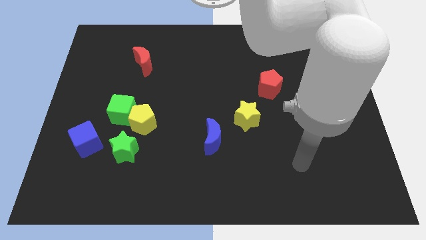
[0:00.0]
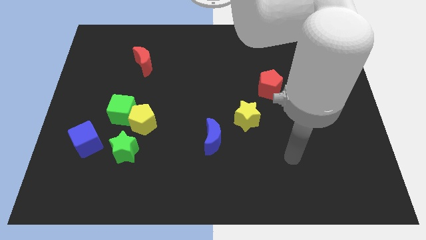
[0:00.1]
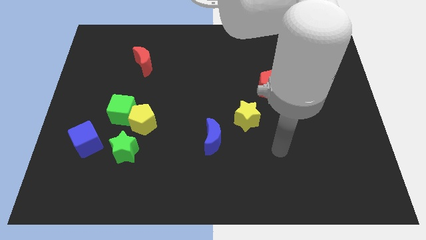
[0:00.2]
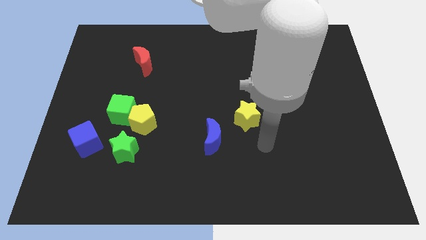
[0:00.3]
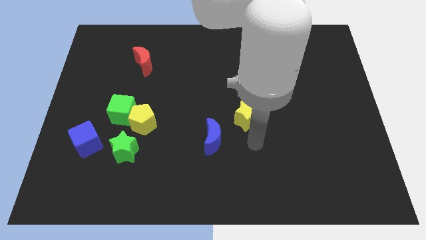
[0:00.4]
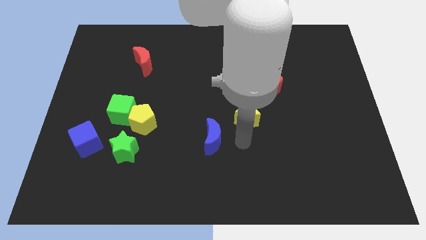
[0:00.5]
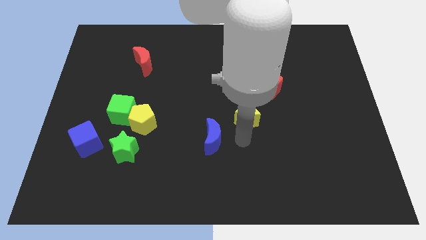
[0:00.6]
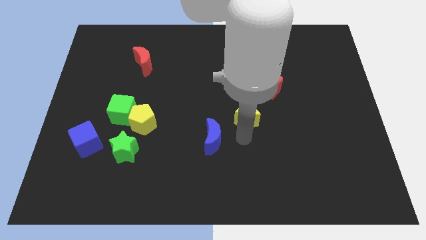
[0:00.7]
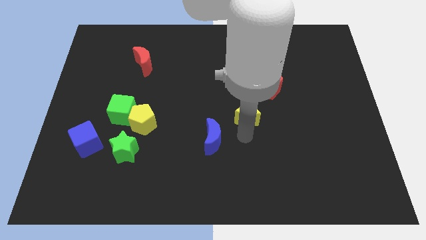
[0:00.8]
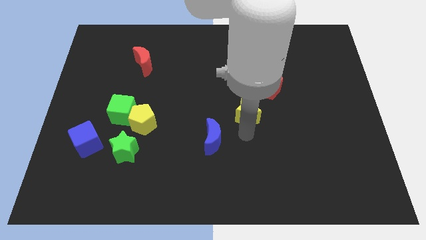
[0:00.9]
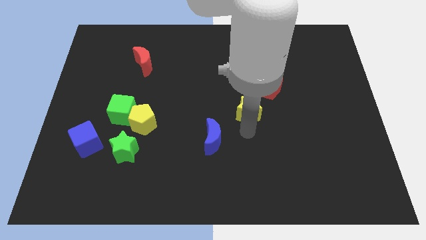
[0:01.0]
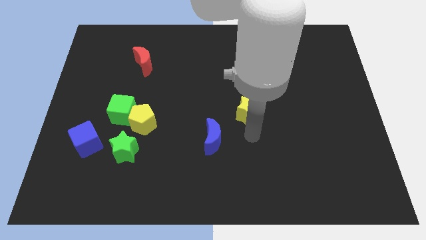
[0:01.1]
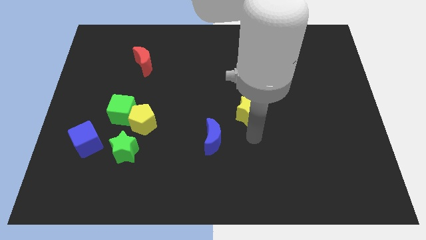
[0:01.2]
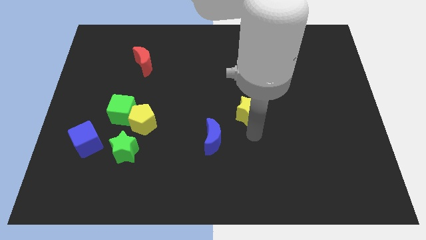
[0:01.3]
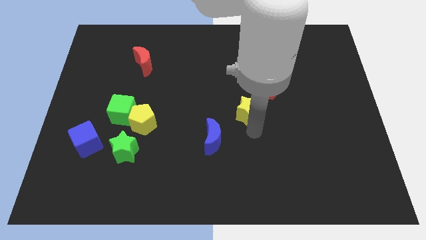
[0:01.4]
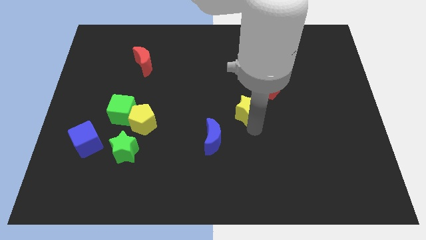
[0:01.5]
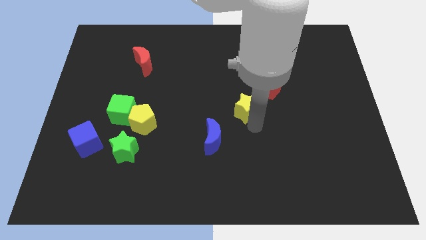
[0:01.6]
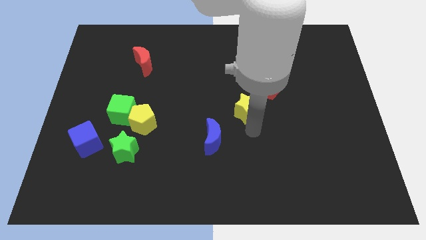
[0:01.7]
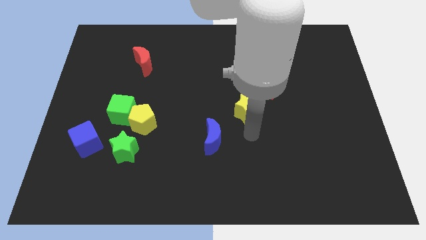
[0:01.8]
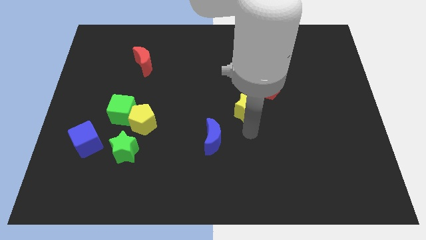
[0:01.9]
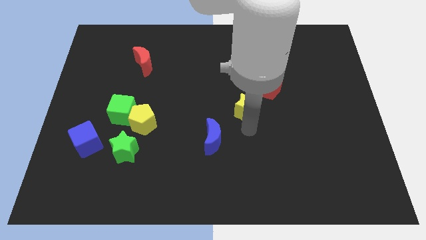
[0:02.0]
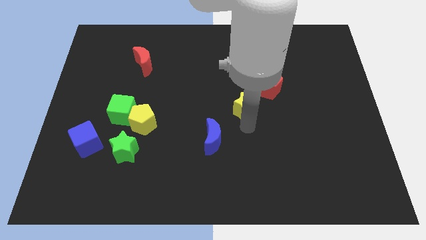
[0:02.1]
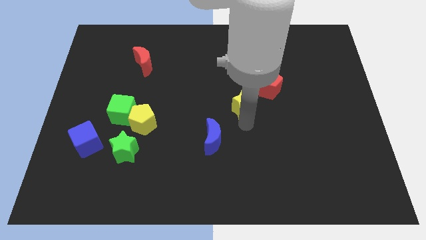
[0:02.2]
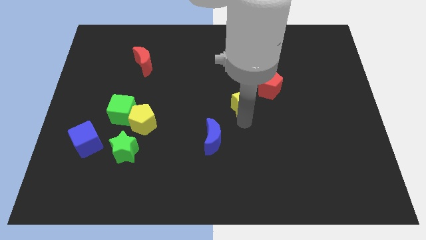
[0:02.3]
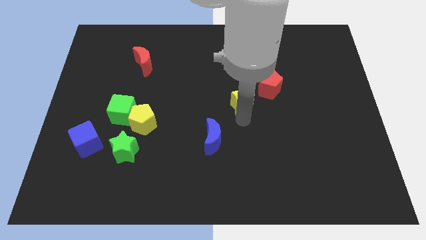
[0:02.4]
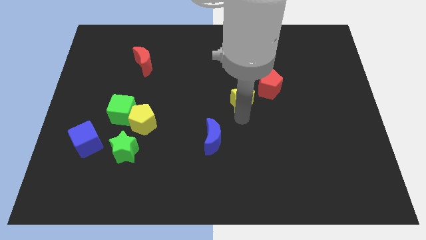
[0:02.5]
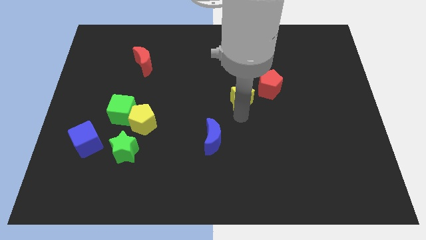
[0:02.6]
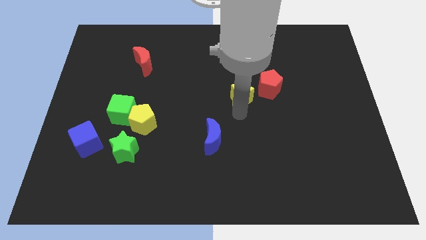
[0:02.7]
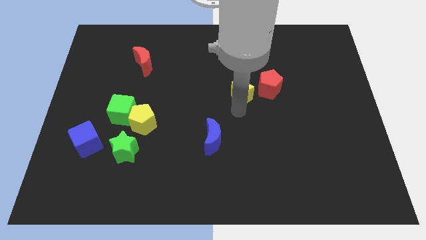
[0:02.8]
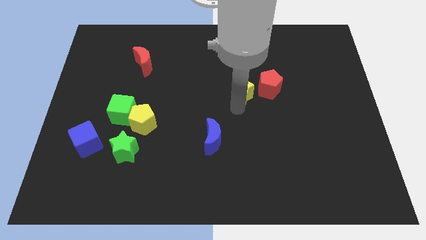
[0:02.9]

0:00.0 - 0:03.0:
slide the yellow star up a little bit

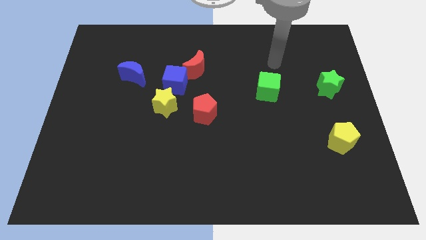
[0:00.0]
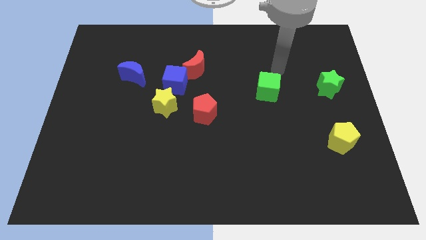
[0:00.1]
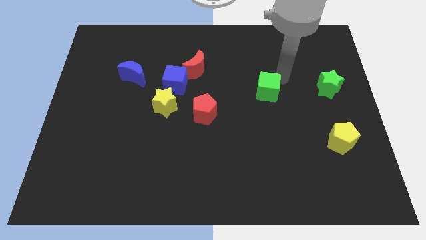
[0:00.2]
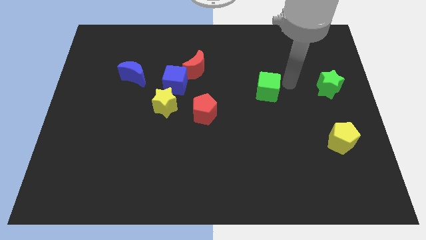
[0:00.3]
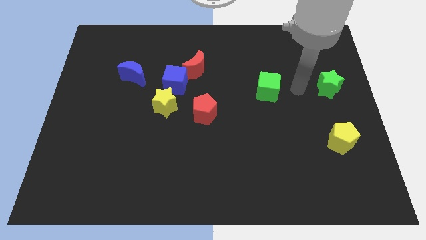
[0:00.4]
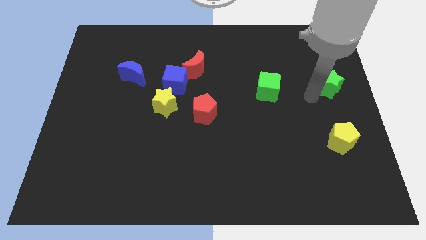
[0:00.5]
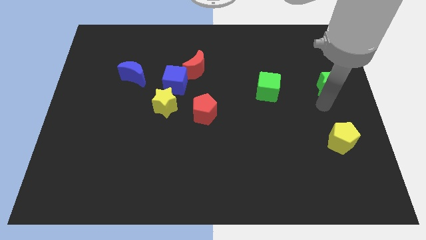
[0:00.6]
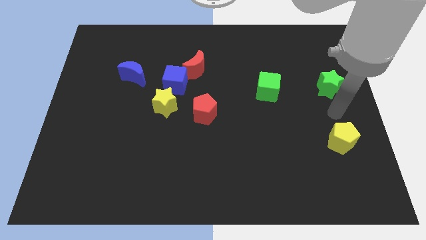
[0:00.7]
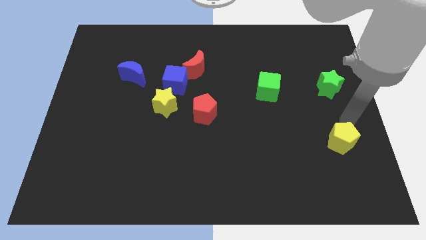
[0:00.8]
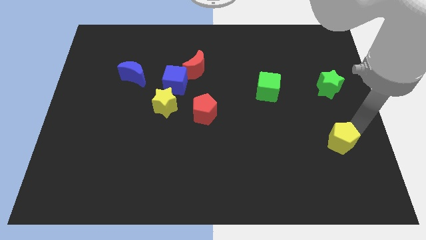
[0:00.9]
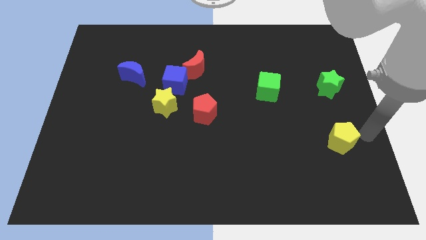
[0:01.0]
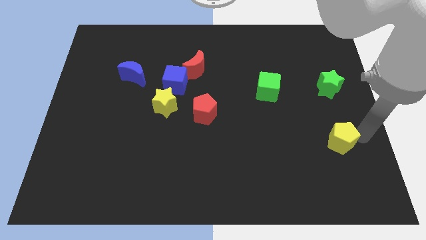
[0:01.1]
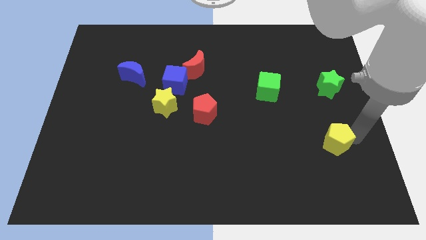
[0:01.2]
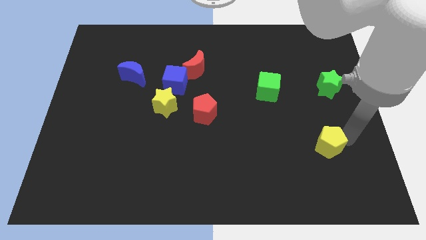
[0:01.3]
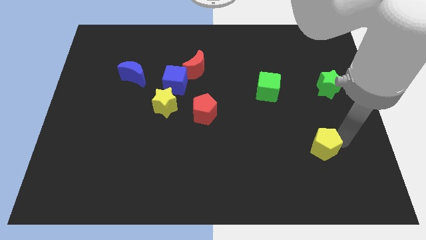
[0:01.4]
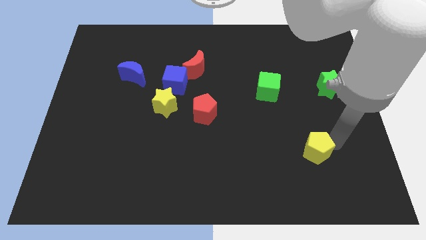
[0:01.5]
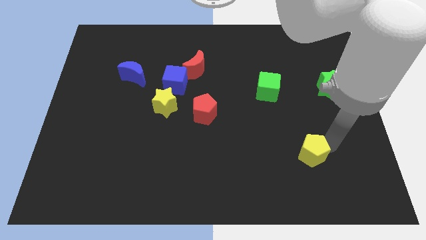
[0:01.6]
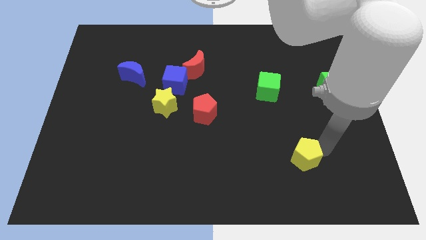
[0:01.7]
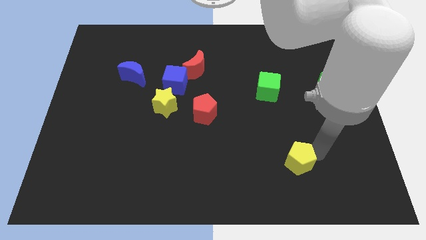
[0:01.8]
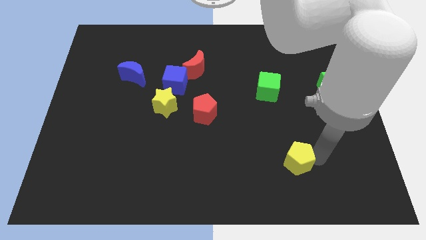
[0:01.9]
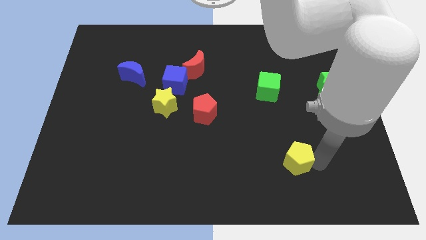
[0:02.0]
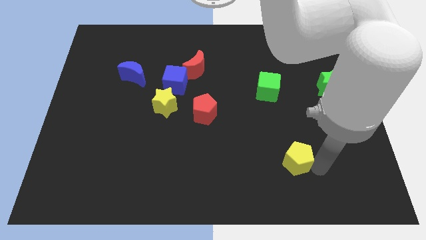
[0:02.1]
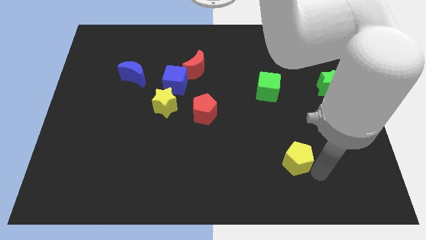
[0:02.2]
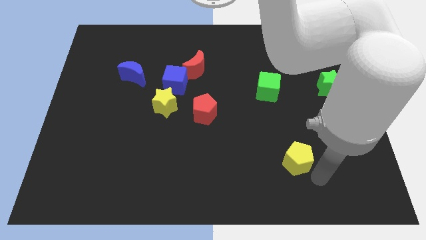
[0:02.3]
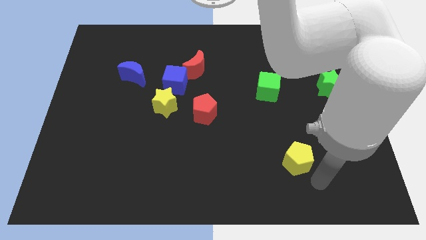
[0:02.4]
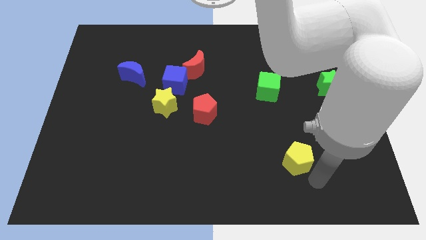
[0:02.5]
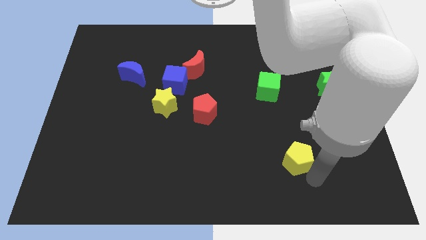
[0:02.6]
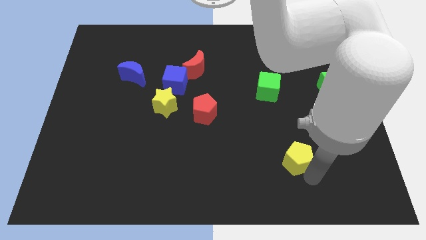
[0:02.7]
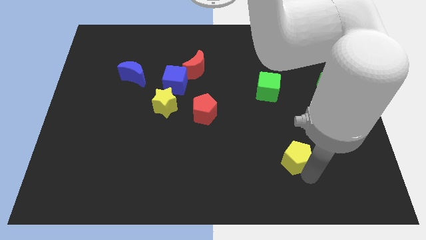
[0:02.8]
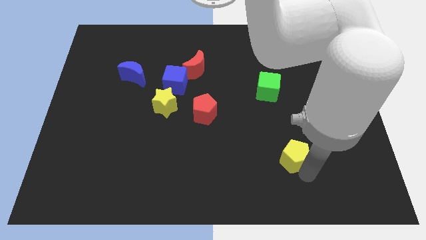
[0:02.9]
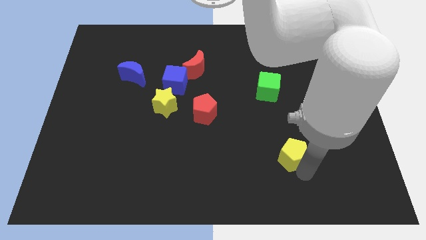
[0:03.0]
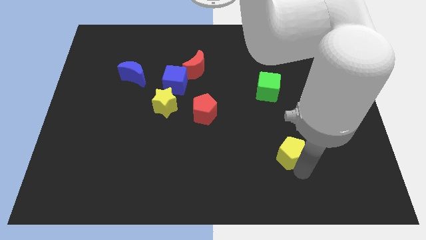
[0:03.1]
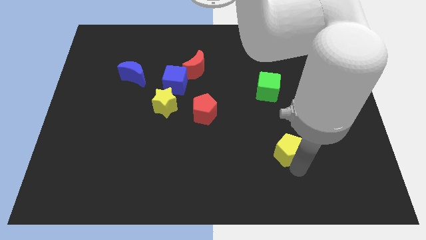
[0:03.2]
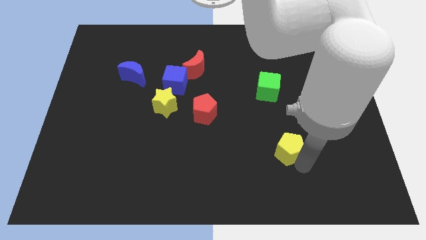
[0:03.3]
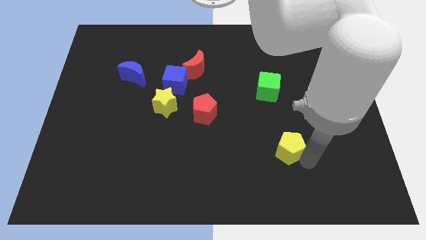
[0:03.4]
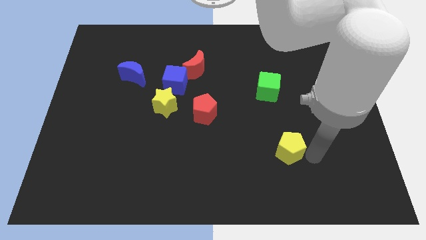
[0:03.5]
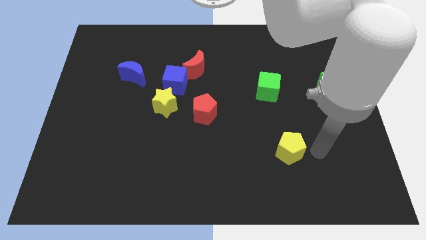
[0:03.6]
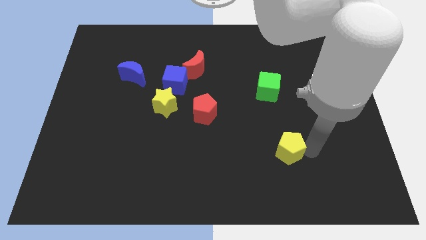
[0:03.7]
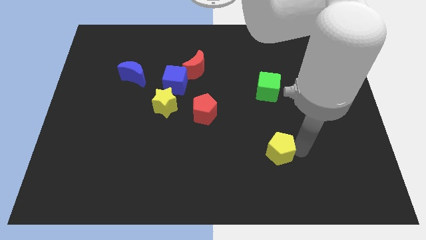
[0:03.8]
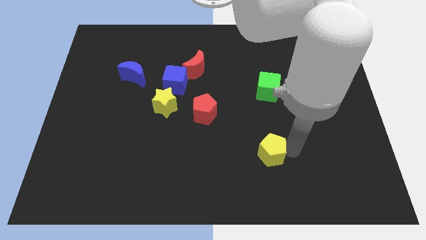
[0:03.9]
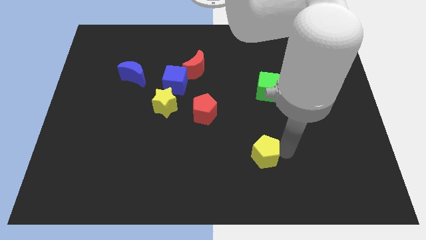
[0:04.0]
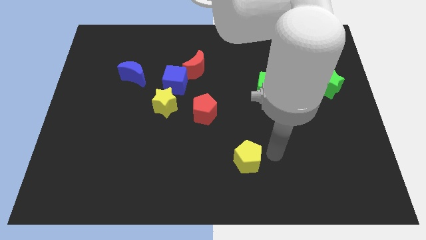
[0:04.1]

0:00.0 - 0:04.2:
push the yellow pentagon left

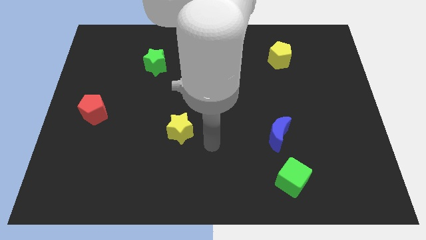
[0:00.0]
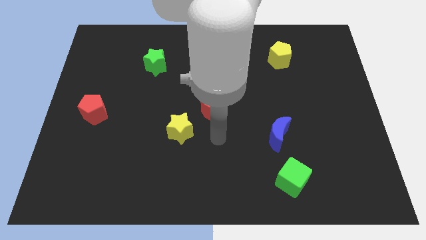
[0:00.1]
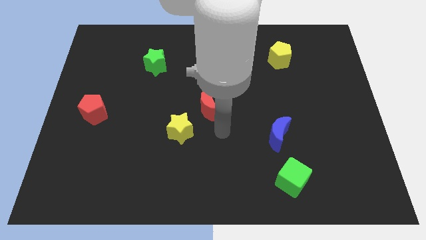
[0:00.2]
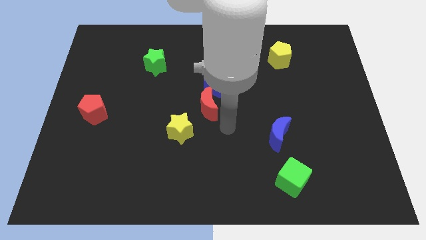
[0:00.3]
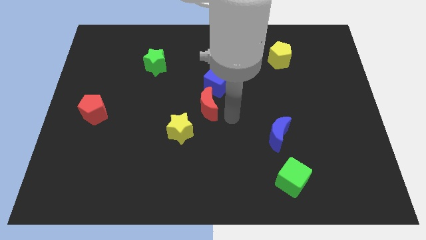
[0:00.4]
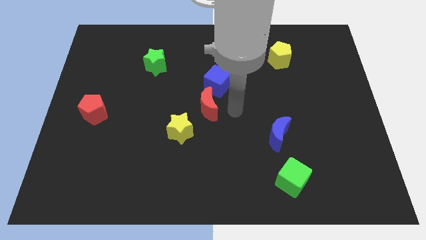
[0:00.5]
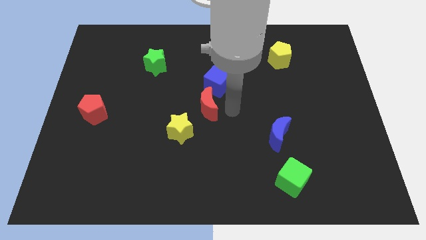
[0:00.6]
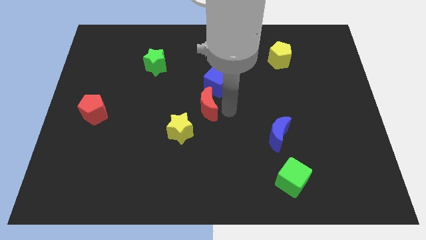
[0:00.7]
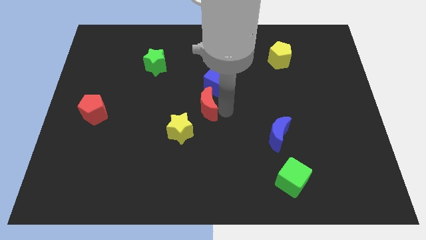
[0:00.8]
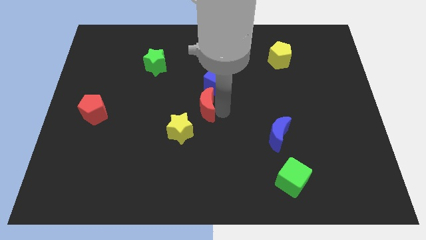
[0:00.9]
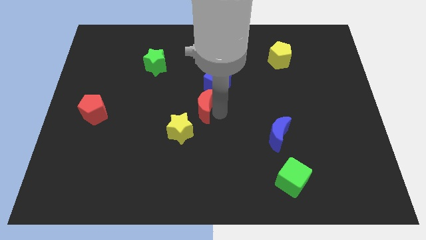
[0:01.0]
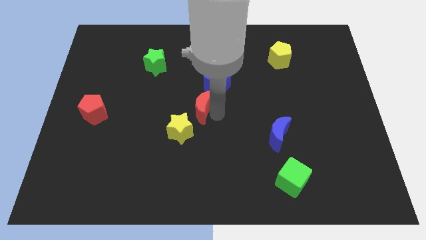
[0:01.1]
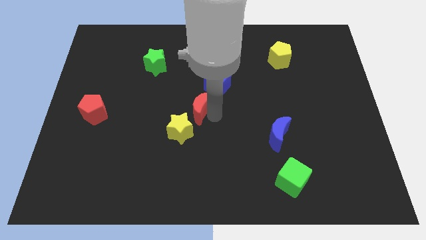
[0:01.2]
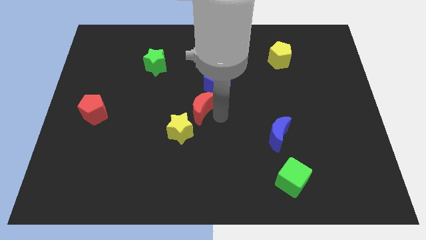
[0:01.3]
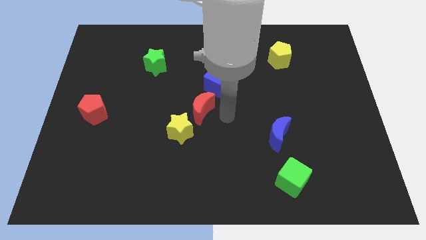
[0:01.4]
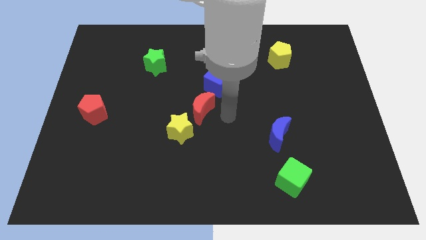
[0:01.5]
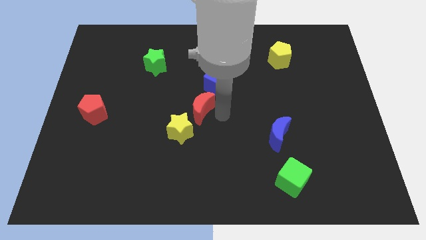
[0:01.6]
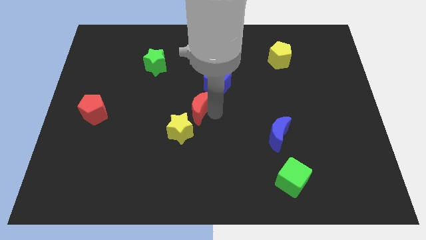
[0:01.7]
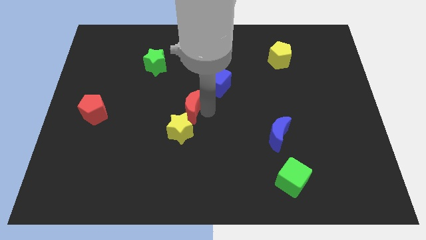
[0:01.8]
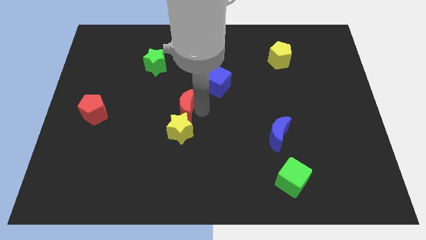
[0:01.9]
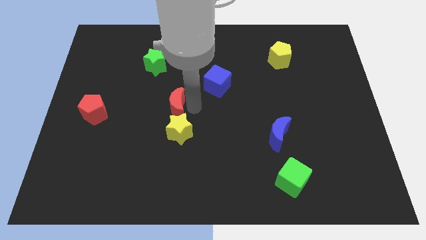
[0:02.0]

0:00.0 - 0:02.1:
slide the red moon left somewhat
